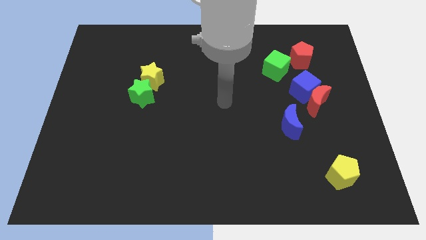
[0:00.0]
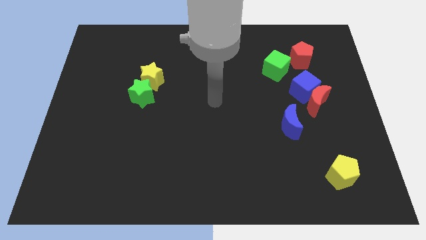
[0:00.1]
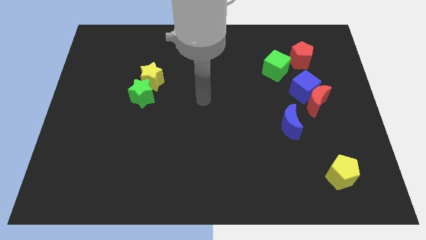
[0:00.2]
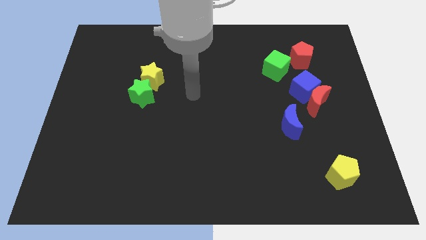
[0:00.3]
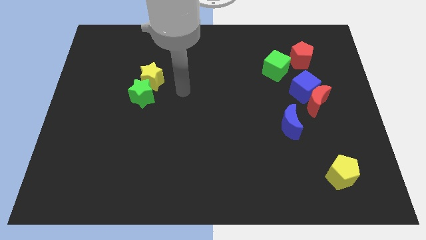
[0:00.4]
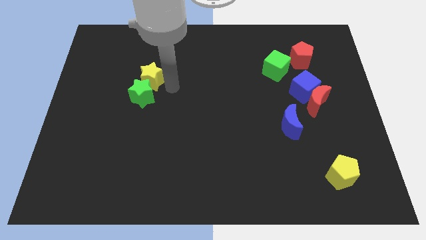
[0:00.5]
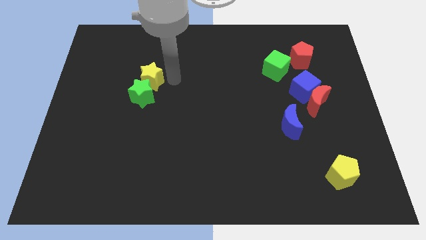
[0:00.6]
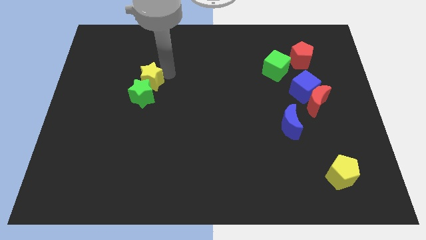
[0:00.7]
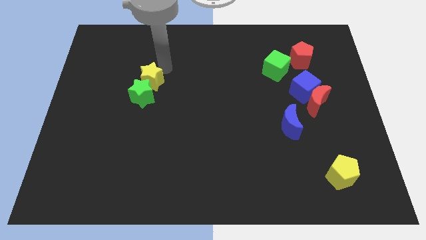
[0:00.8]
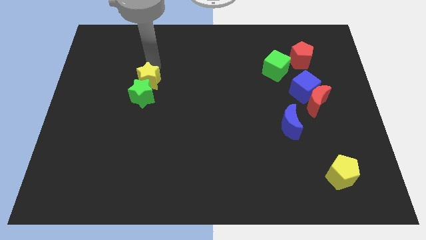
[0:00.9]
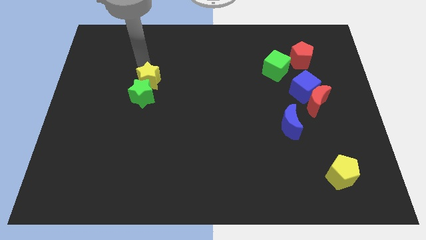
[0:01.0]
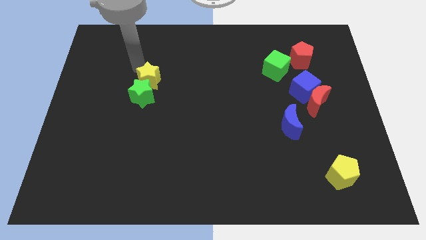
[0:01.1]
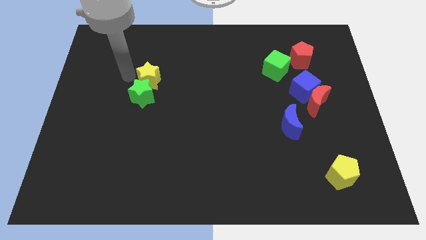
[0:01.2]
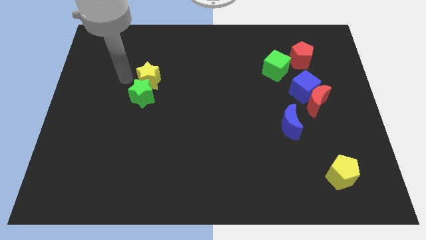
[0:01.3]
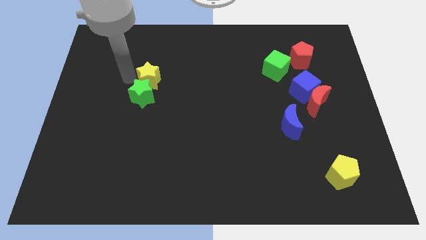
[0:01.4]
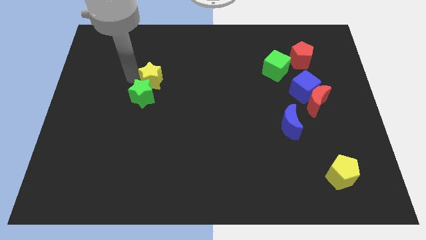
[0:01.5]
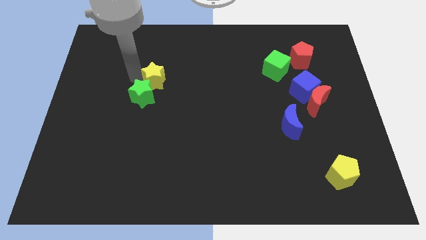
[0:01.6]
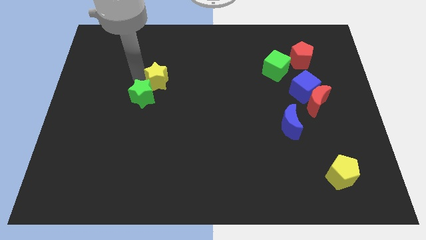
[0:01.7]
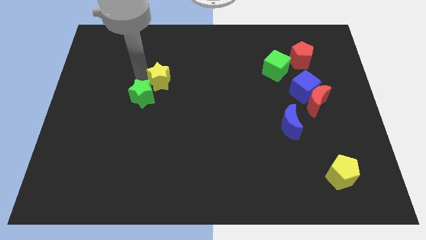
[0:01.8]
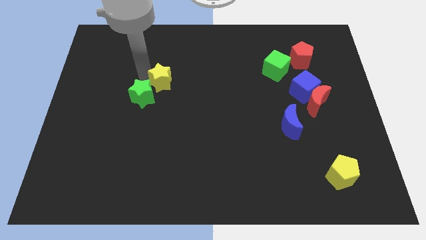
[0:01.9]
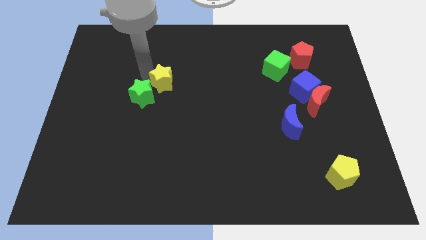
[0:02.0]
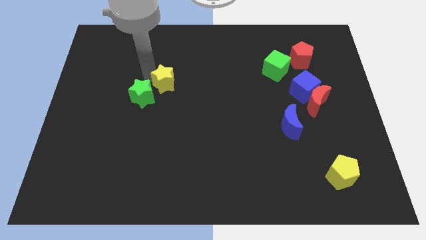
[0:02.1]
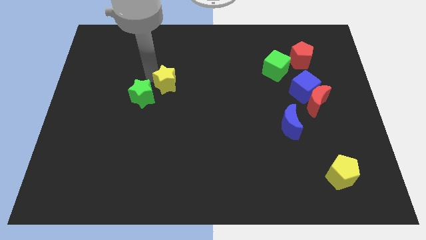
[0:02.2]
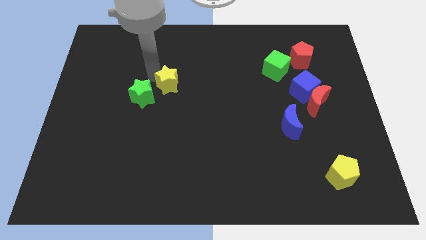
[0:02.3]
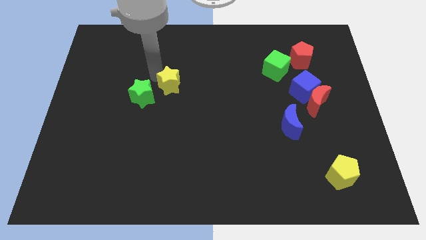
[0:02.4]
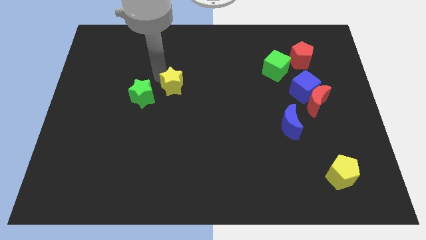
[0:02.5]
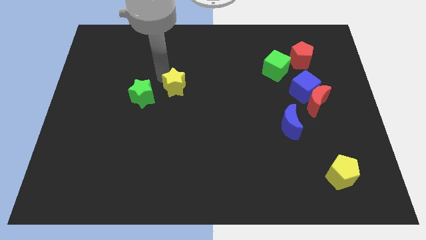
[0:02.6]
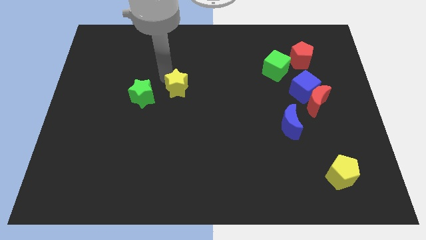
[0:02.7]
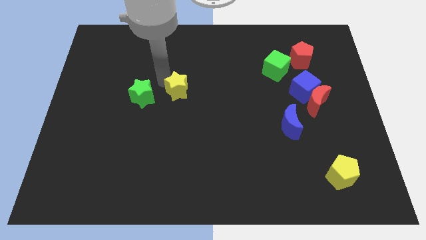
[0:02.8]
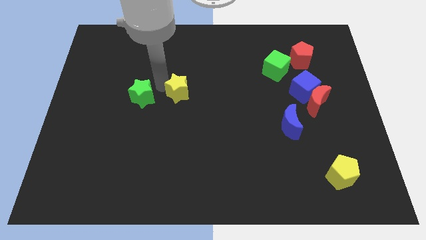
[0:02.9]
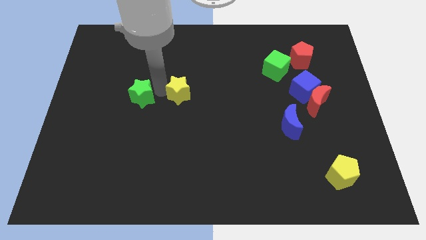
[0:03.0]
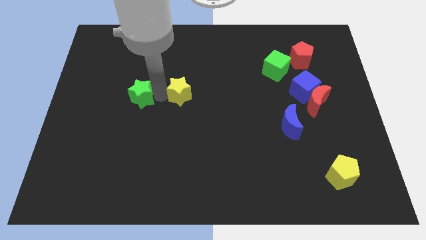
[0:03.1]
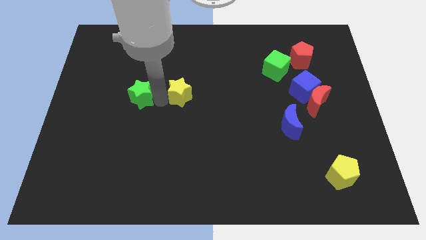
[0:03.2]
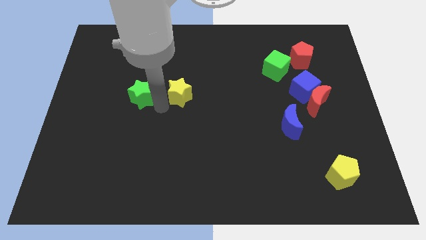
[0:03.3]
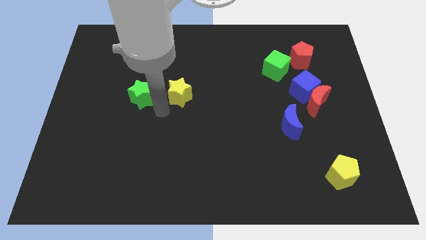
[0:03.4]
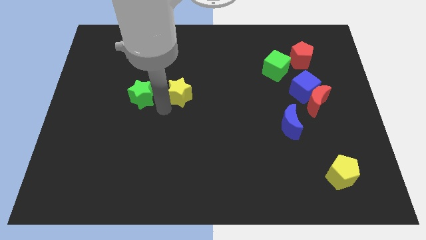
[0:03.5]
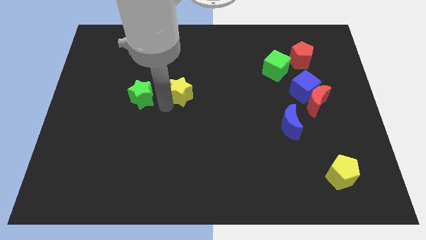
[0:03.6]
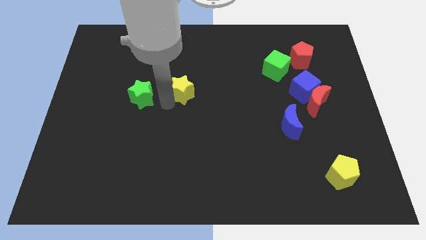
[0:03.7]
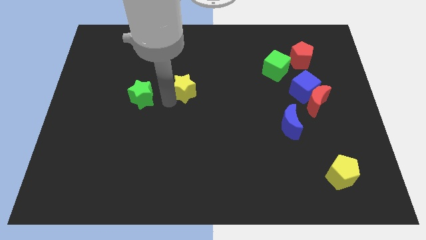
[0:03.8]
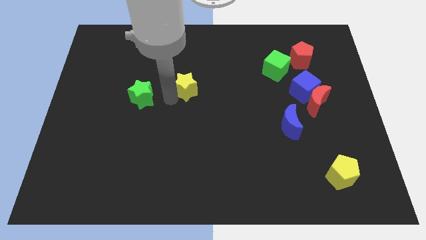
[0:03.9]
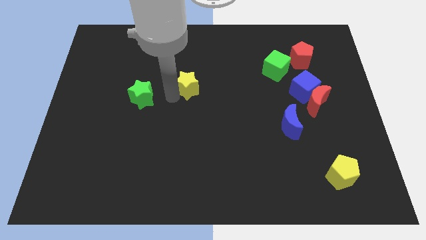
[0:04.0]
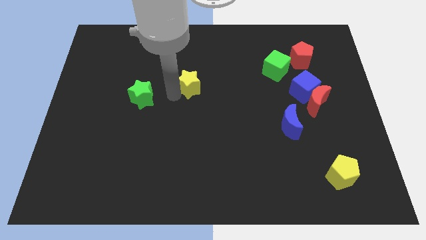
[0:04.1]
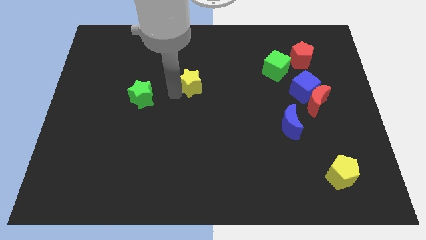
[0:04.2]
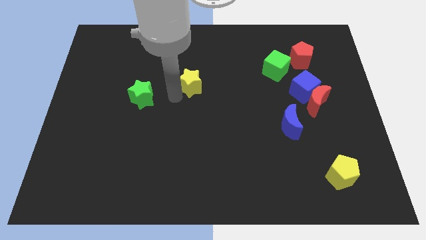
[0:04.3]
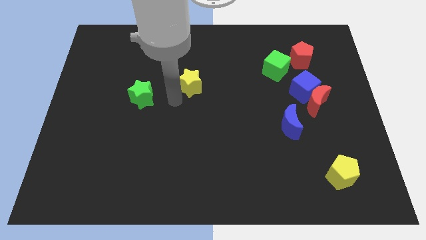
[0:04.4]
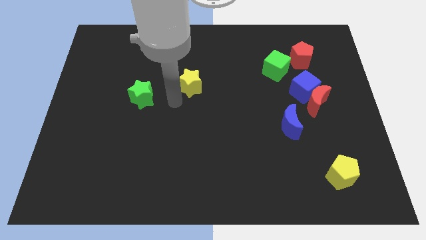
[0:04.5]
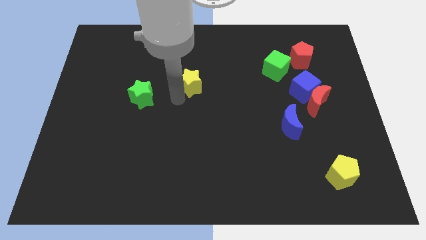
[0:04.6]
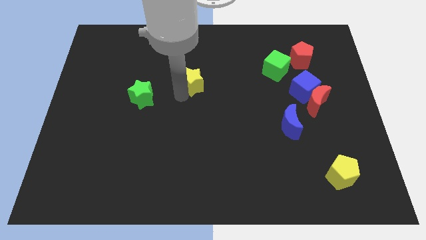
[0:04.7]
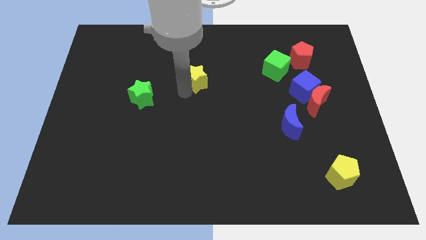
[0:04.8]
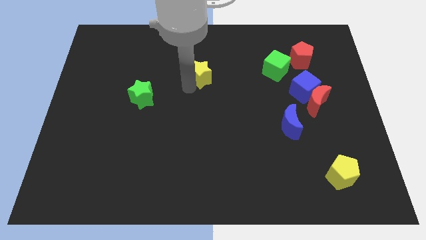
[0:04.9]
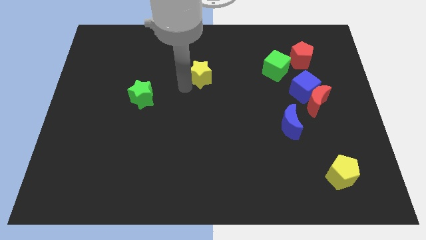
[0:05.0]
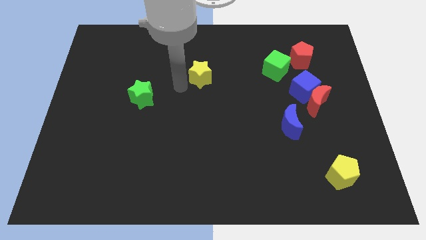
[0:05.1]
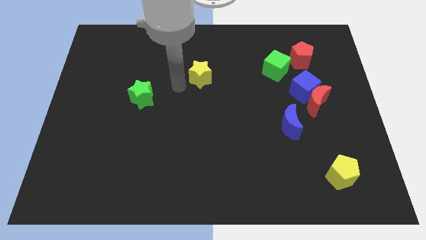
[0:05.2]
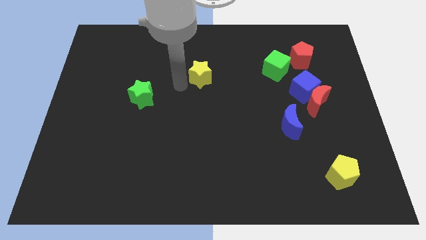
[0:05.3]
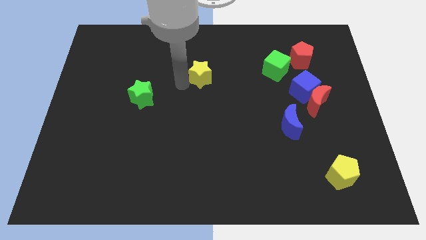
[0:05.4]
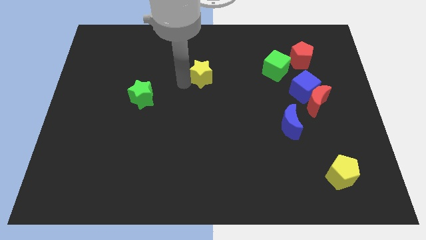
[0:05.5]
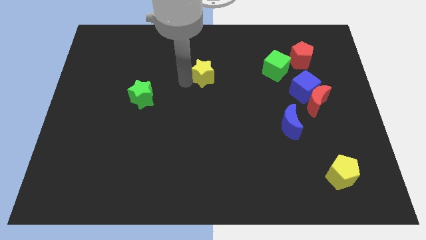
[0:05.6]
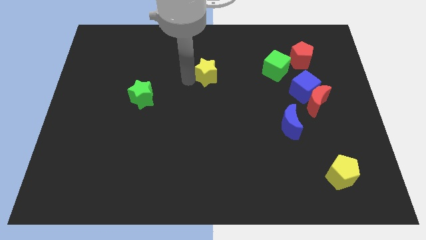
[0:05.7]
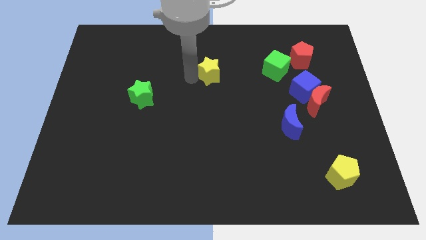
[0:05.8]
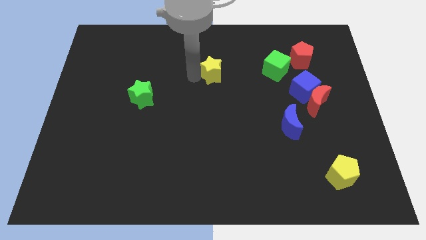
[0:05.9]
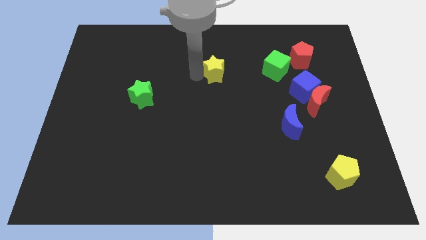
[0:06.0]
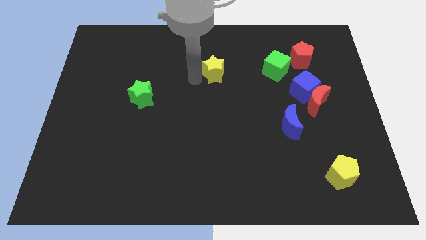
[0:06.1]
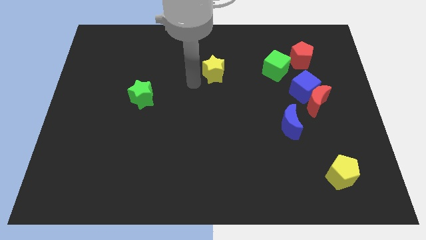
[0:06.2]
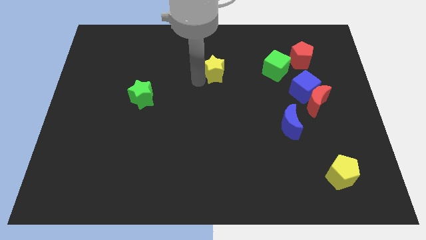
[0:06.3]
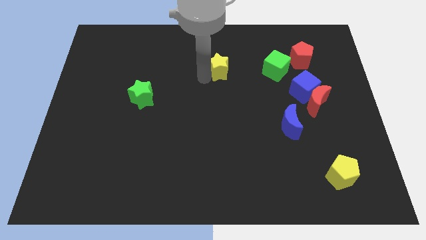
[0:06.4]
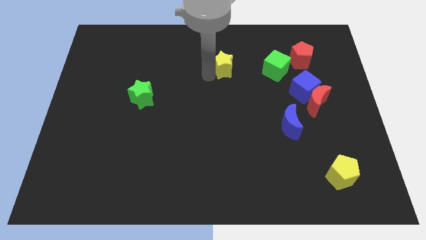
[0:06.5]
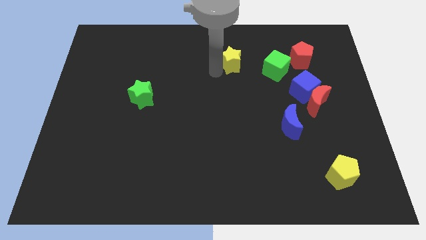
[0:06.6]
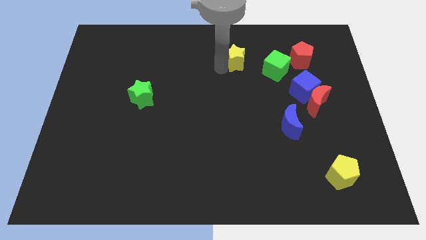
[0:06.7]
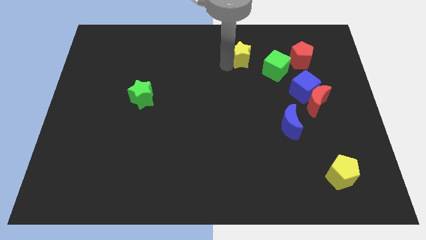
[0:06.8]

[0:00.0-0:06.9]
put the yellow star to the top left of the green cube

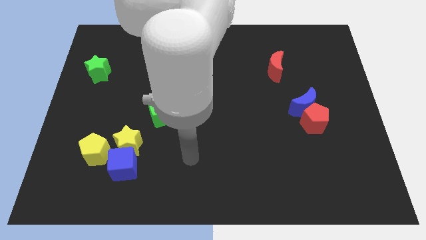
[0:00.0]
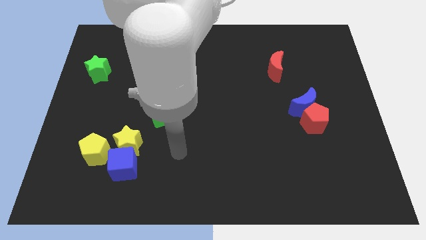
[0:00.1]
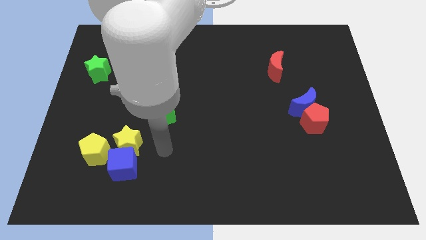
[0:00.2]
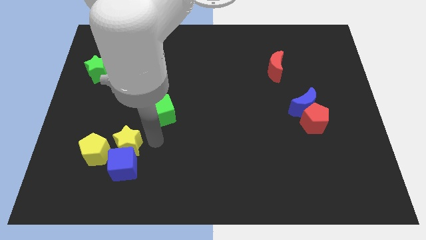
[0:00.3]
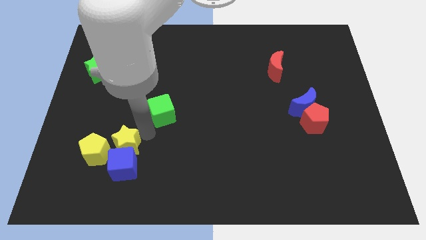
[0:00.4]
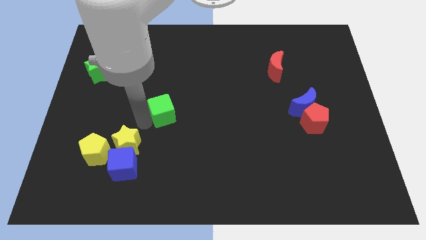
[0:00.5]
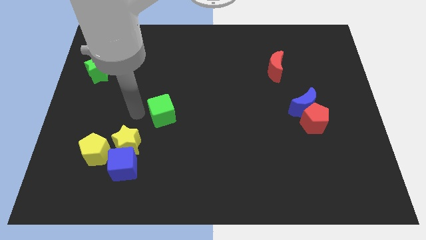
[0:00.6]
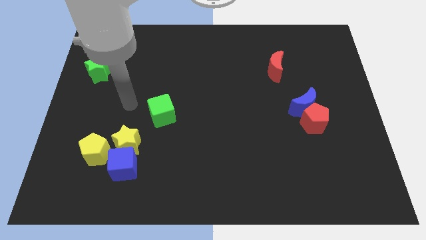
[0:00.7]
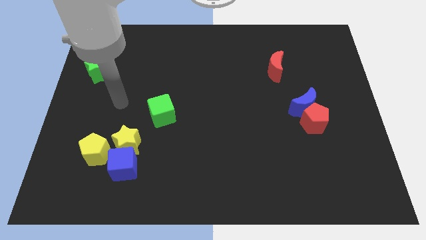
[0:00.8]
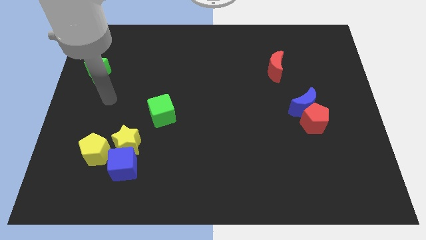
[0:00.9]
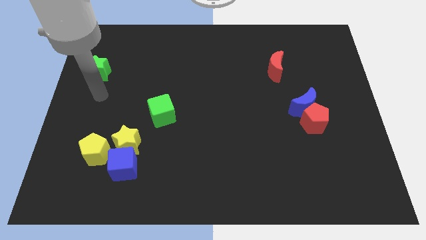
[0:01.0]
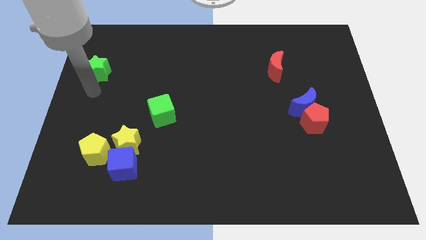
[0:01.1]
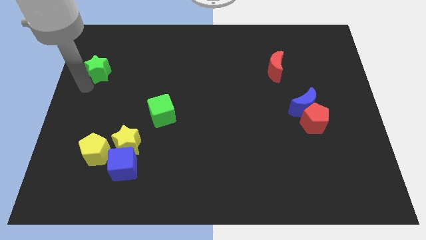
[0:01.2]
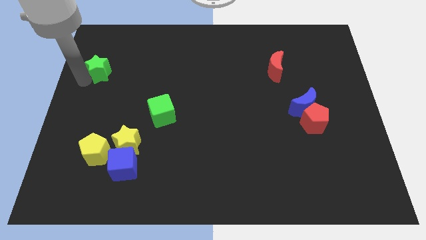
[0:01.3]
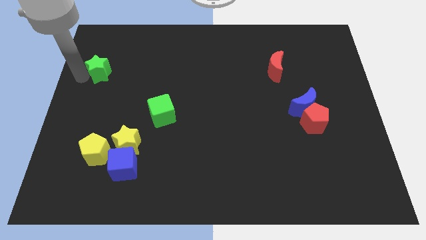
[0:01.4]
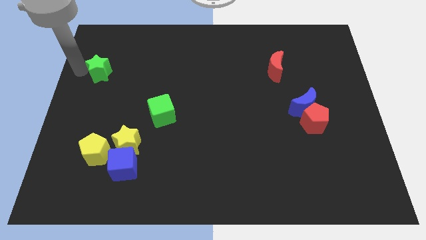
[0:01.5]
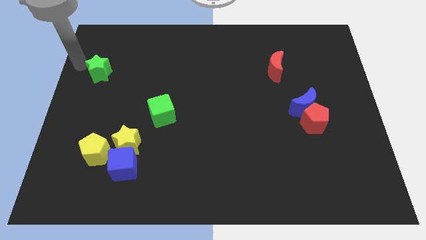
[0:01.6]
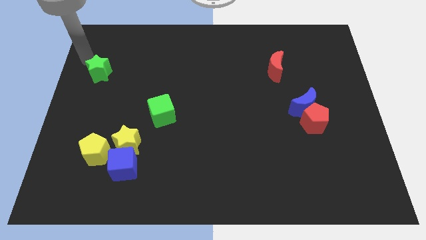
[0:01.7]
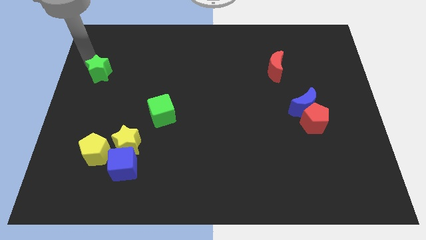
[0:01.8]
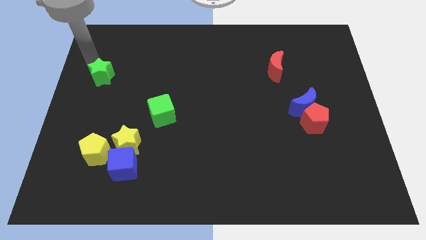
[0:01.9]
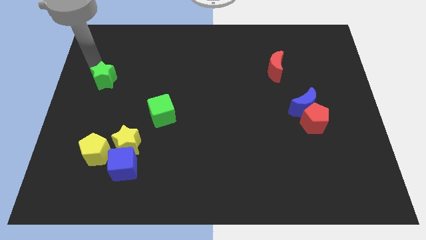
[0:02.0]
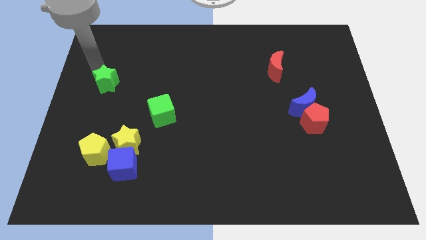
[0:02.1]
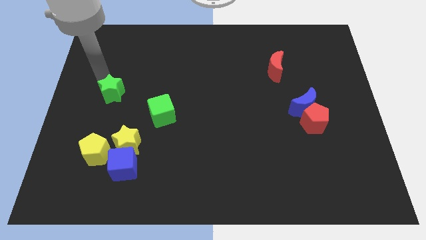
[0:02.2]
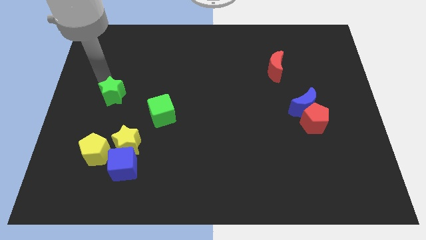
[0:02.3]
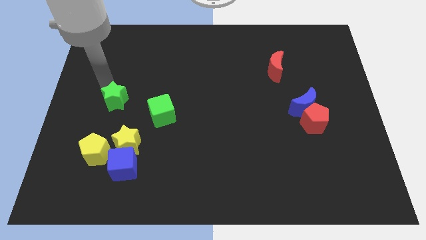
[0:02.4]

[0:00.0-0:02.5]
slide the green star to the top of the yellow star
